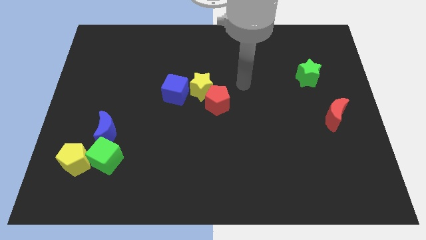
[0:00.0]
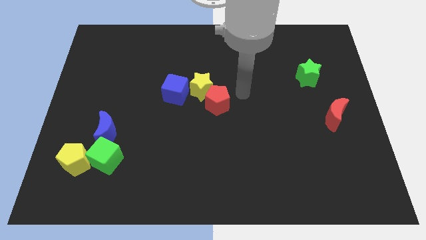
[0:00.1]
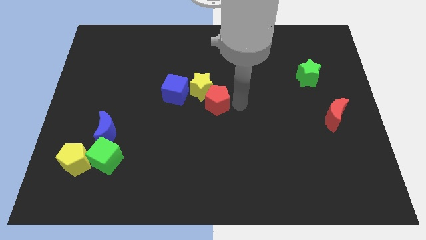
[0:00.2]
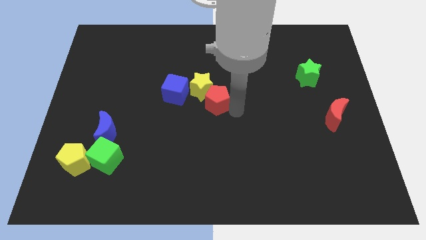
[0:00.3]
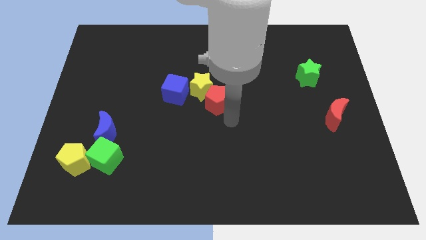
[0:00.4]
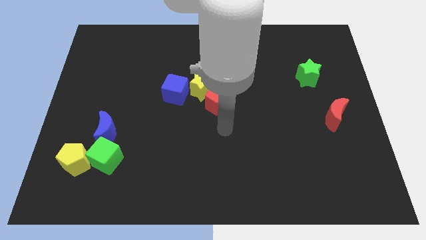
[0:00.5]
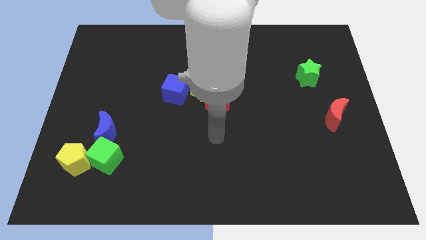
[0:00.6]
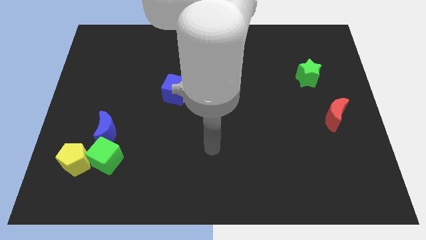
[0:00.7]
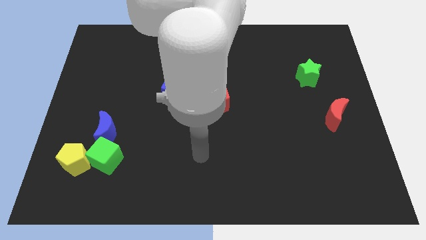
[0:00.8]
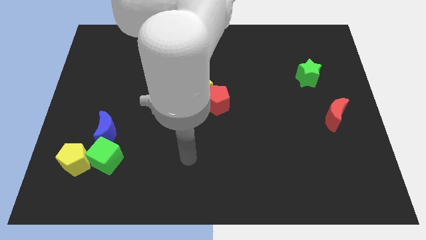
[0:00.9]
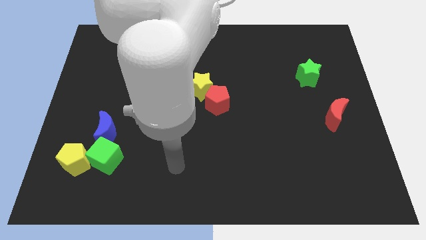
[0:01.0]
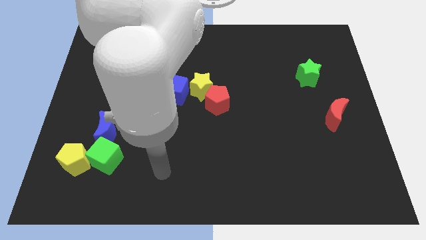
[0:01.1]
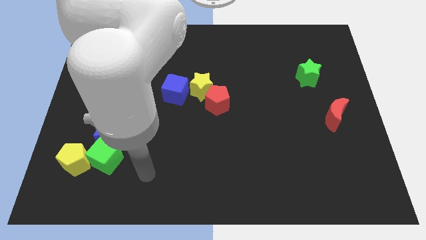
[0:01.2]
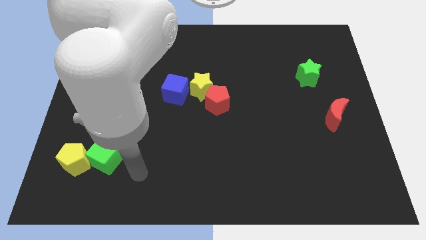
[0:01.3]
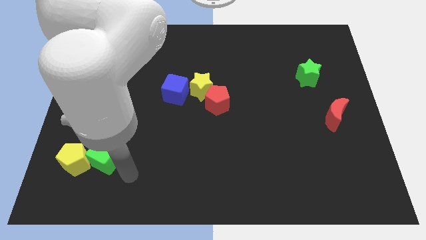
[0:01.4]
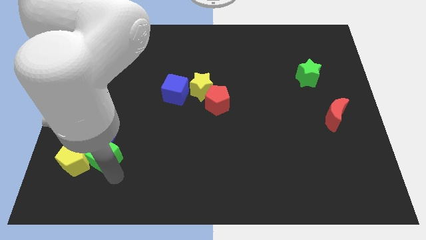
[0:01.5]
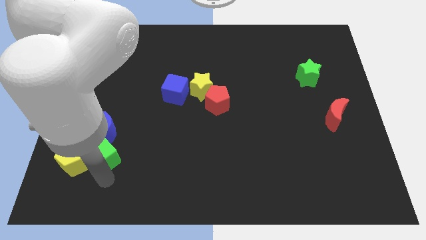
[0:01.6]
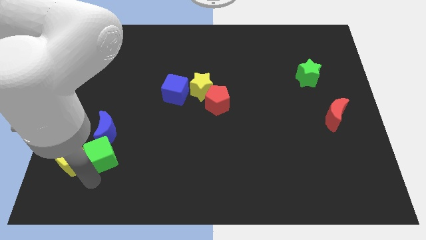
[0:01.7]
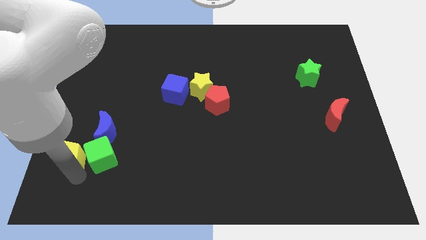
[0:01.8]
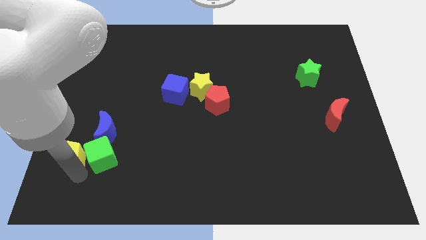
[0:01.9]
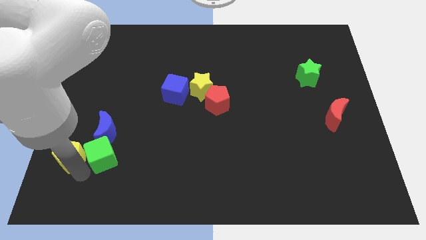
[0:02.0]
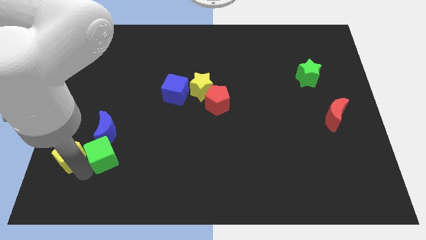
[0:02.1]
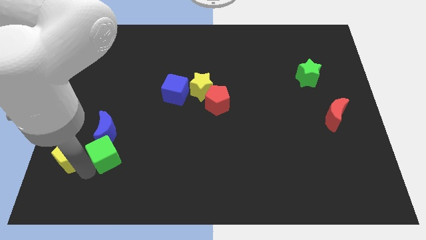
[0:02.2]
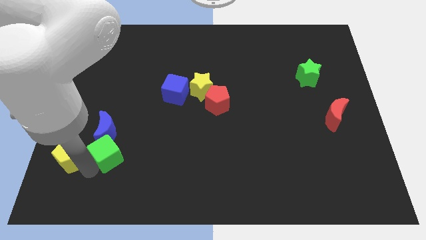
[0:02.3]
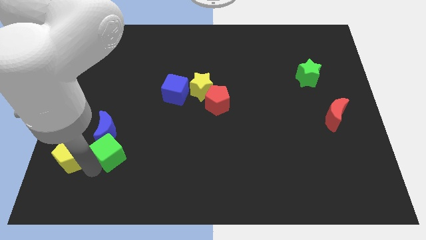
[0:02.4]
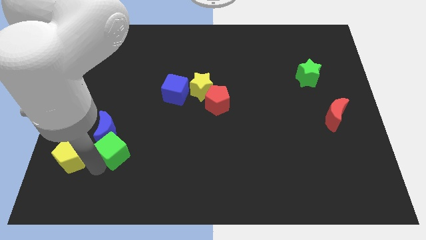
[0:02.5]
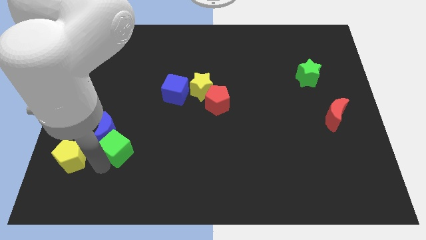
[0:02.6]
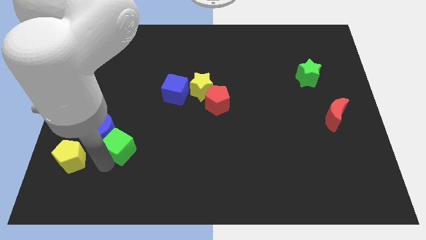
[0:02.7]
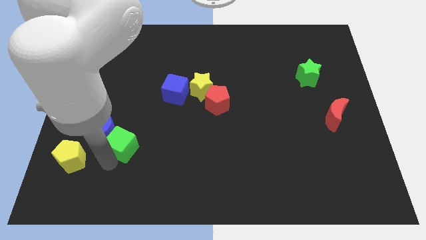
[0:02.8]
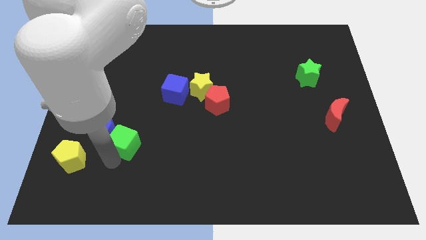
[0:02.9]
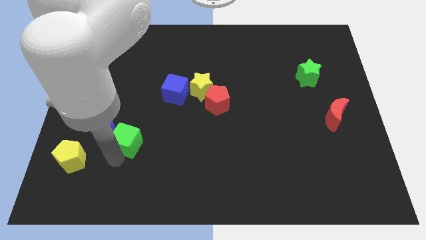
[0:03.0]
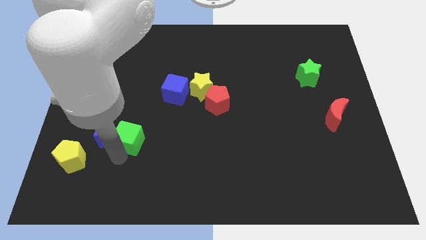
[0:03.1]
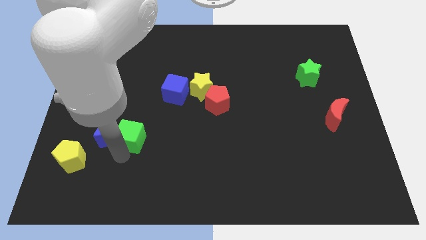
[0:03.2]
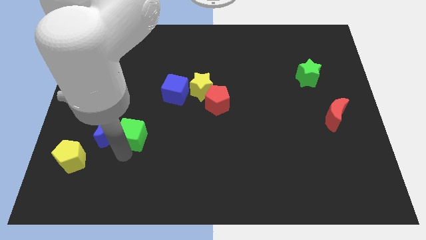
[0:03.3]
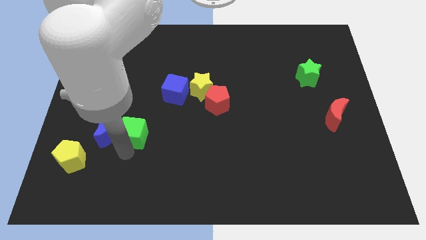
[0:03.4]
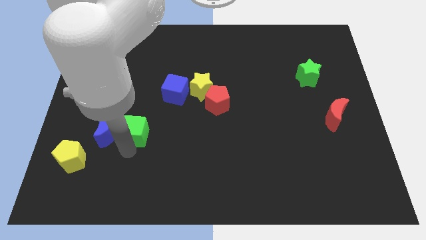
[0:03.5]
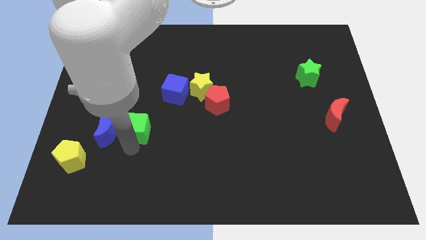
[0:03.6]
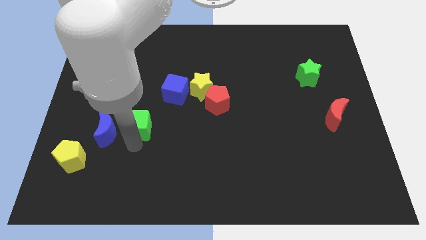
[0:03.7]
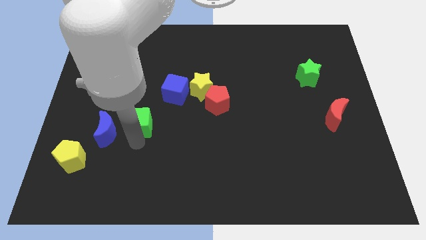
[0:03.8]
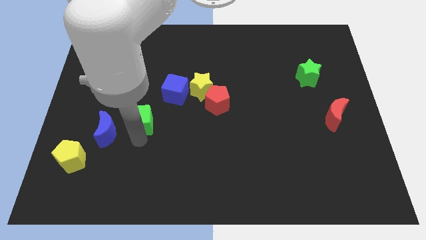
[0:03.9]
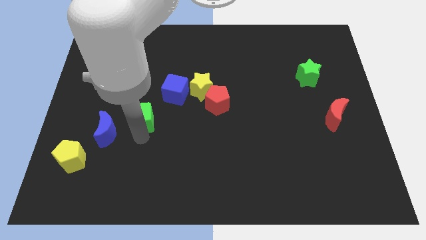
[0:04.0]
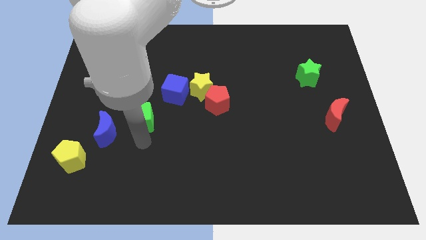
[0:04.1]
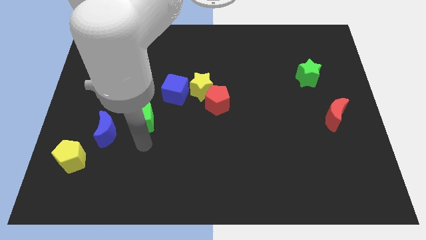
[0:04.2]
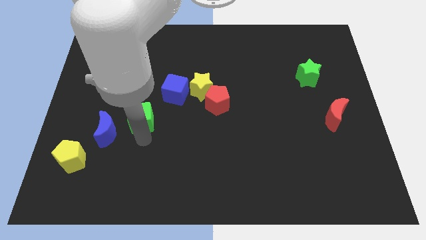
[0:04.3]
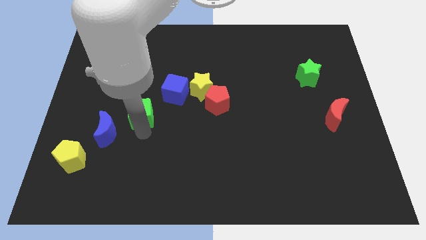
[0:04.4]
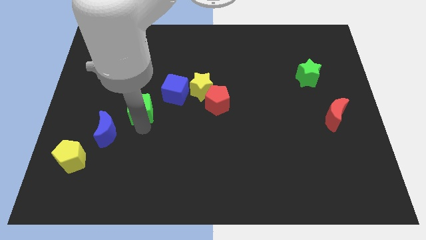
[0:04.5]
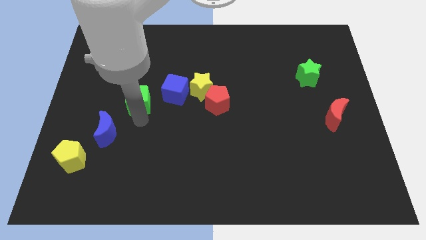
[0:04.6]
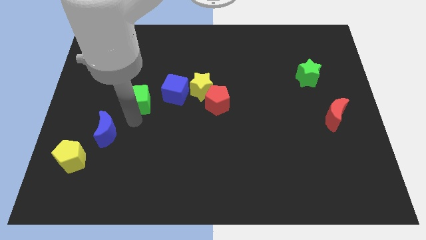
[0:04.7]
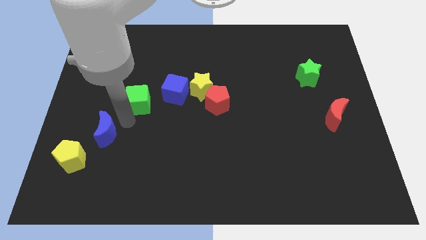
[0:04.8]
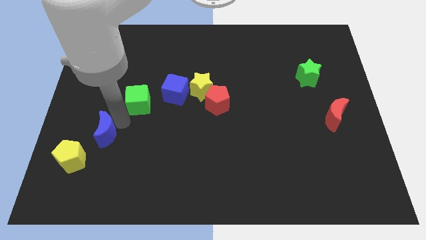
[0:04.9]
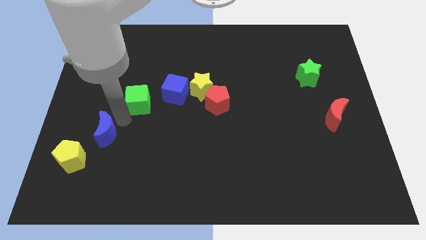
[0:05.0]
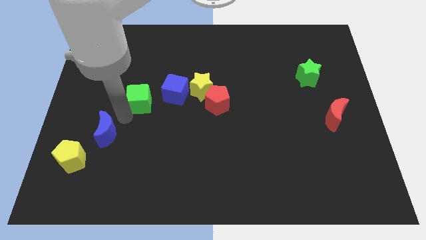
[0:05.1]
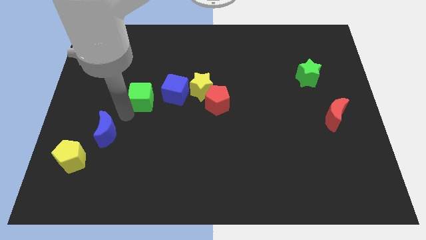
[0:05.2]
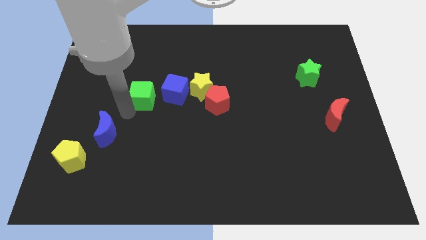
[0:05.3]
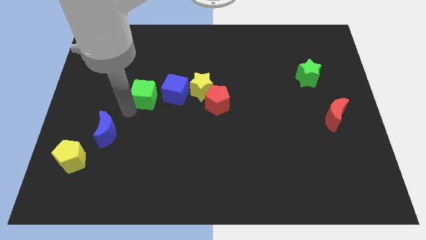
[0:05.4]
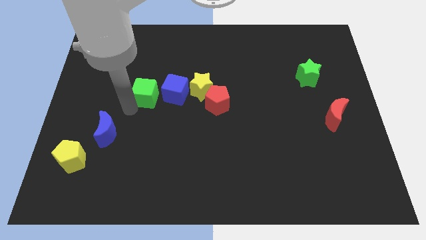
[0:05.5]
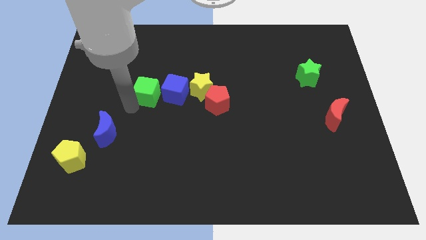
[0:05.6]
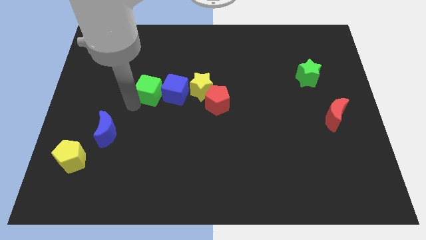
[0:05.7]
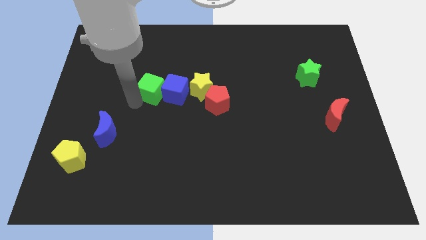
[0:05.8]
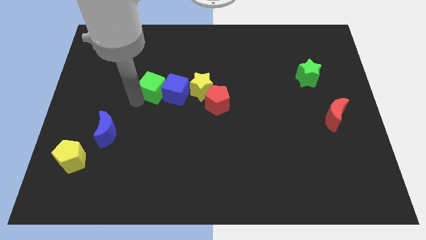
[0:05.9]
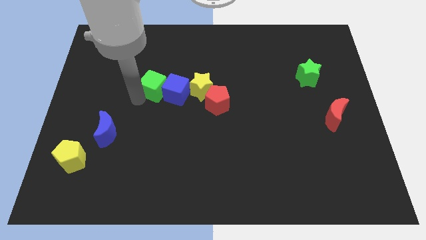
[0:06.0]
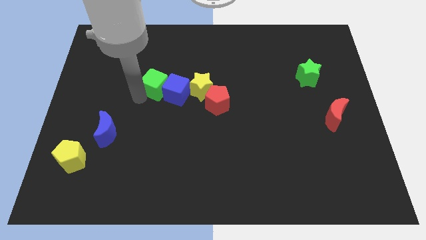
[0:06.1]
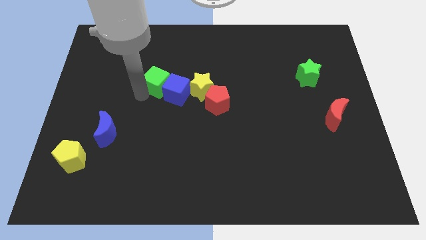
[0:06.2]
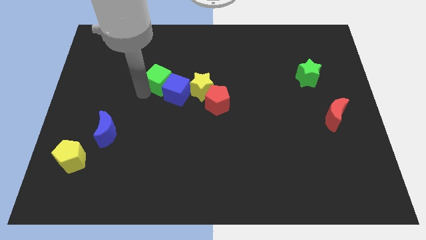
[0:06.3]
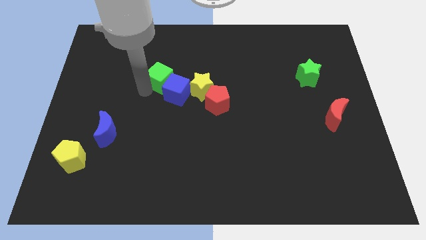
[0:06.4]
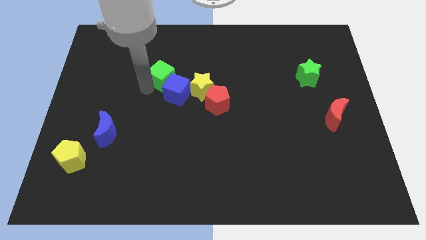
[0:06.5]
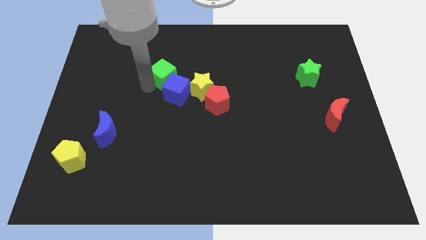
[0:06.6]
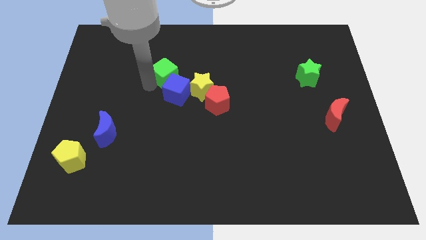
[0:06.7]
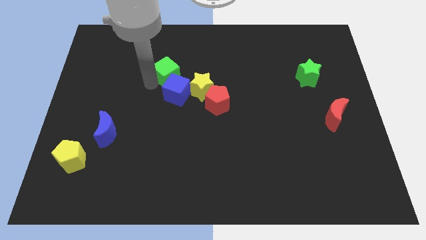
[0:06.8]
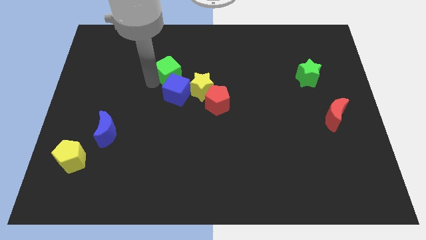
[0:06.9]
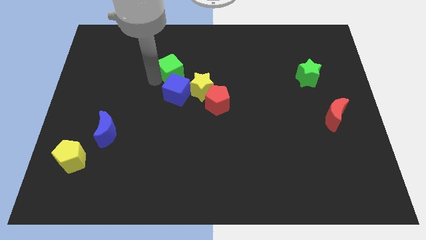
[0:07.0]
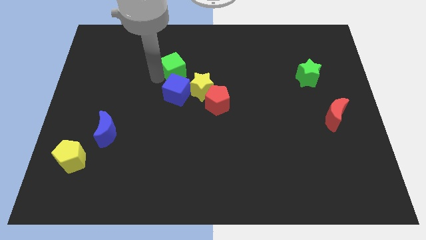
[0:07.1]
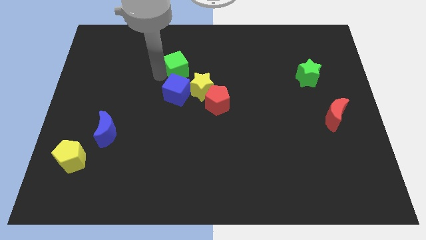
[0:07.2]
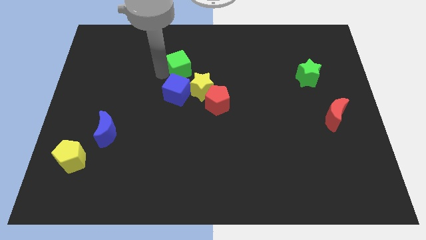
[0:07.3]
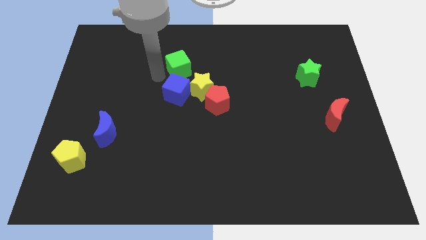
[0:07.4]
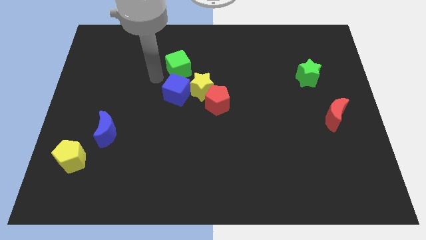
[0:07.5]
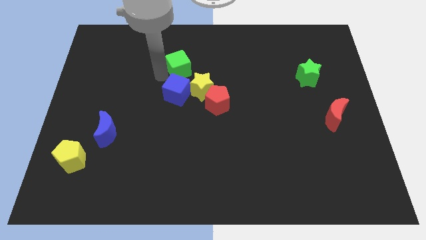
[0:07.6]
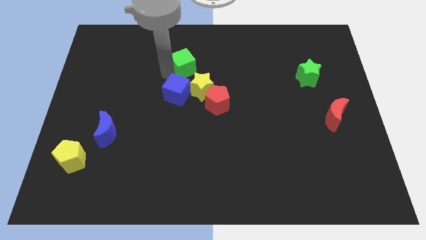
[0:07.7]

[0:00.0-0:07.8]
slide the green cube to the top side of the yellow star
